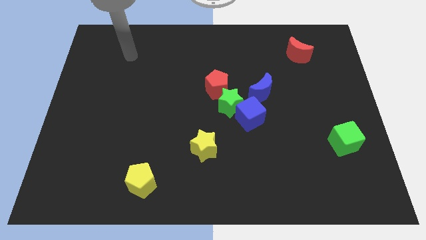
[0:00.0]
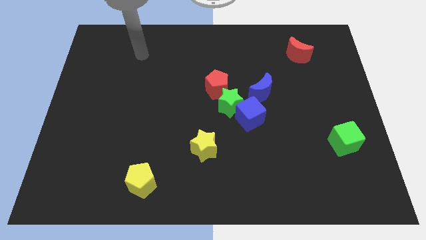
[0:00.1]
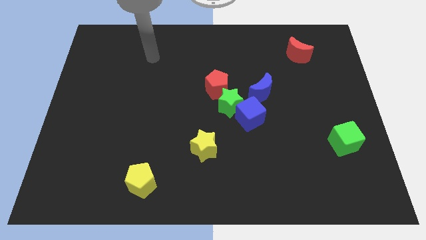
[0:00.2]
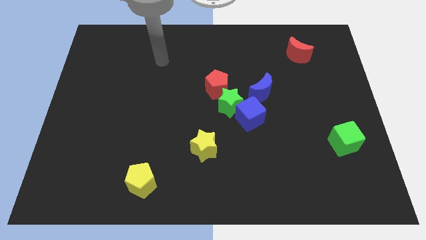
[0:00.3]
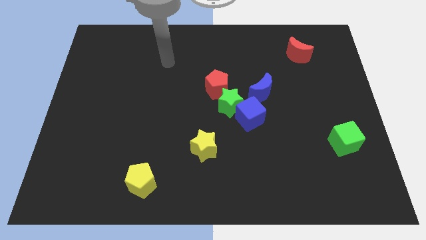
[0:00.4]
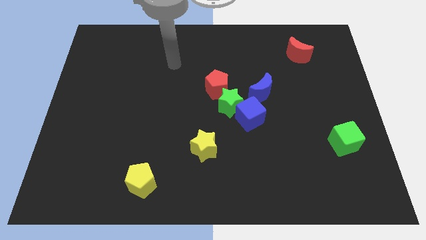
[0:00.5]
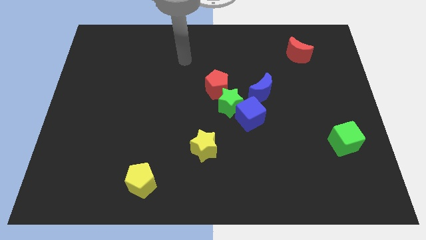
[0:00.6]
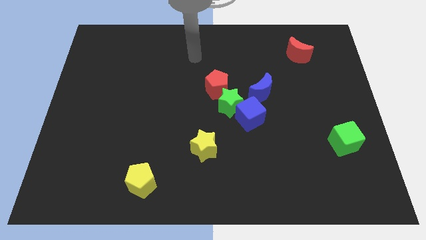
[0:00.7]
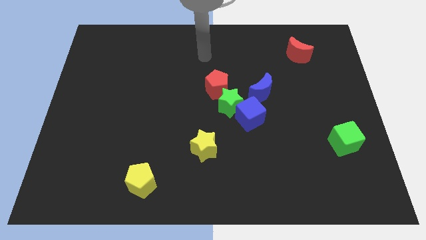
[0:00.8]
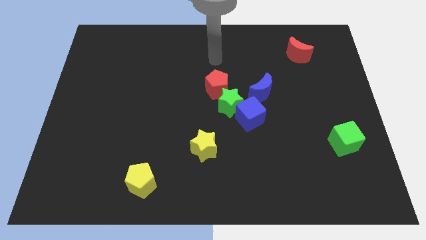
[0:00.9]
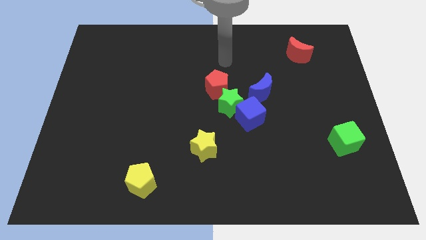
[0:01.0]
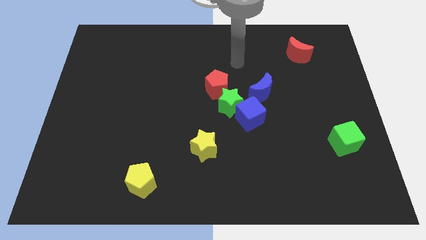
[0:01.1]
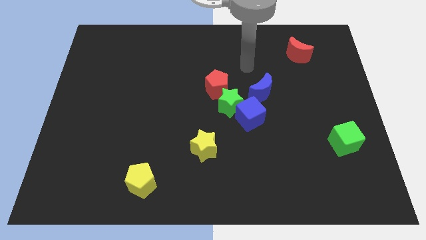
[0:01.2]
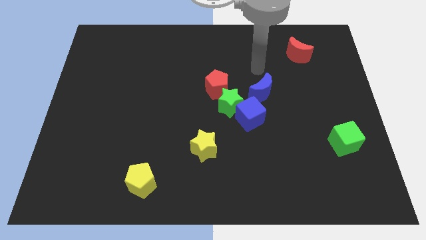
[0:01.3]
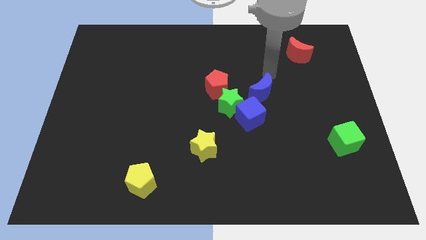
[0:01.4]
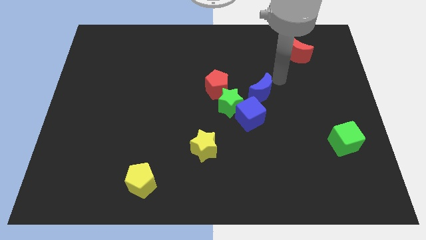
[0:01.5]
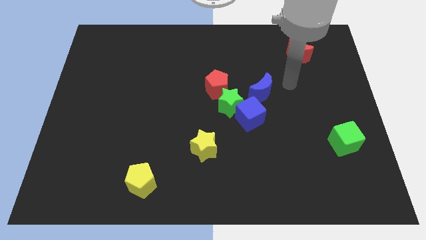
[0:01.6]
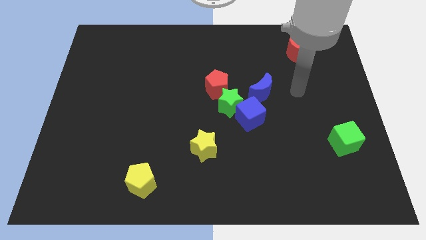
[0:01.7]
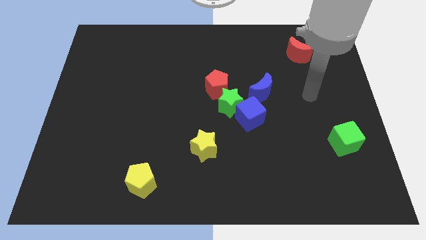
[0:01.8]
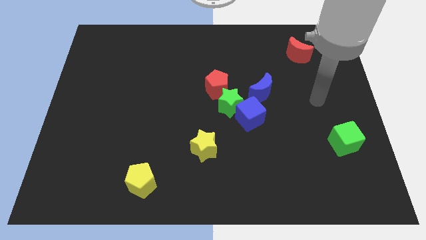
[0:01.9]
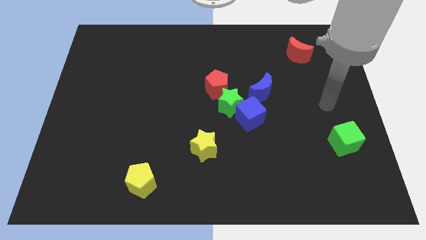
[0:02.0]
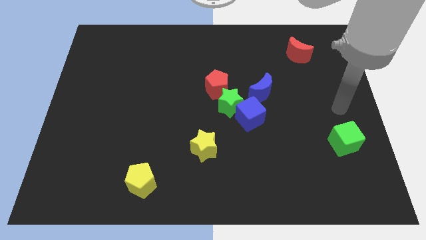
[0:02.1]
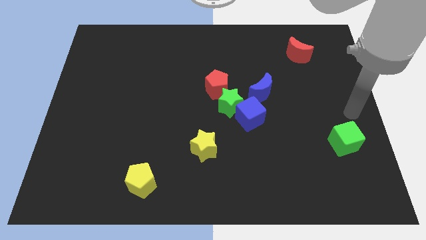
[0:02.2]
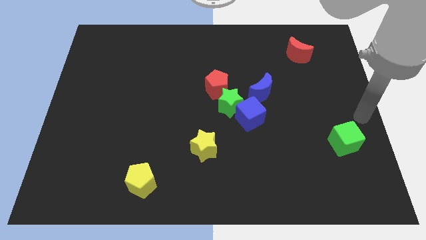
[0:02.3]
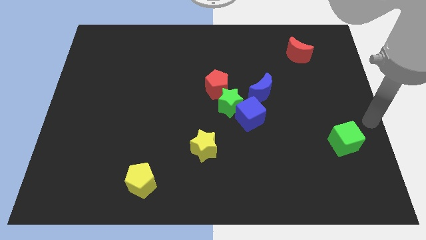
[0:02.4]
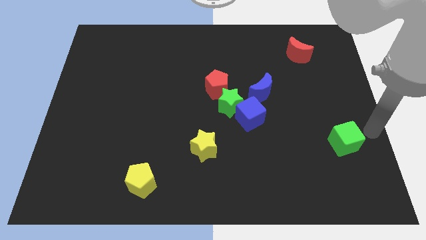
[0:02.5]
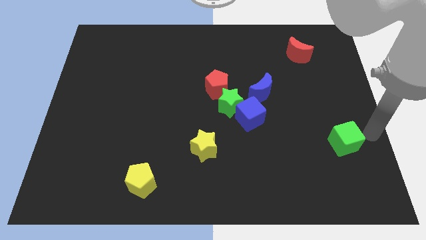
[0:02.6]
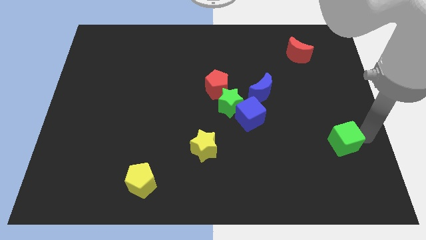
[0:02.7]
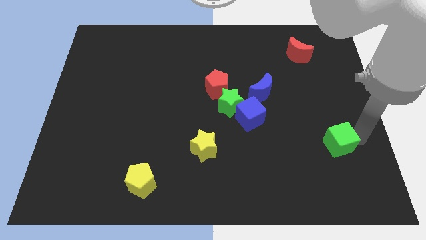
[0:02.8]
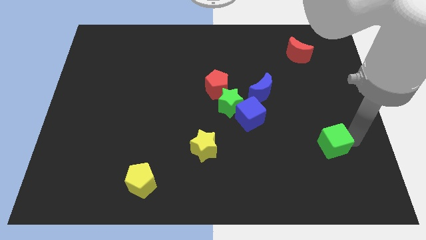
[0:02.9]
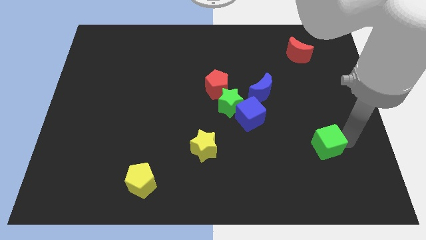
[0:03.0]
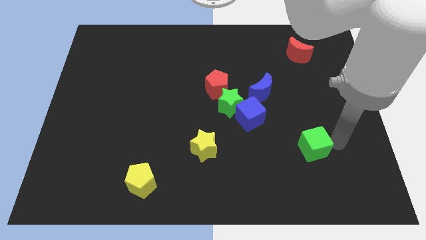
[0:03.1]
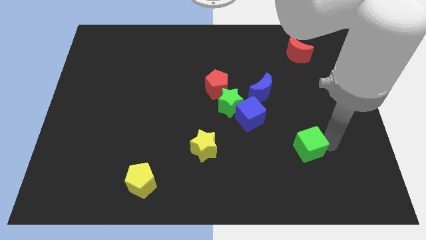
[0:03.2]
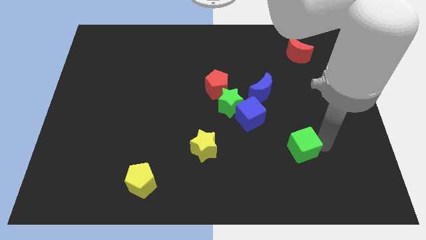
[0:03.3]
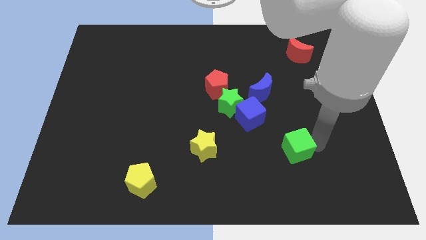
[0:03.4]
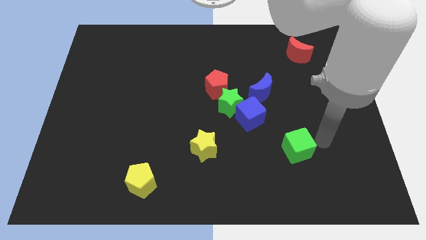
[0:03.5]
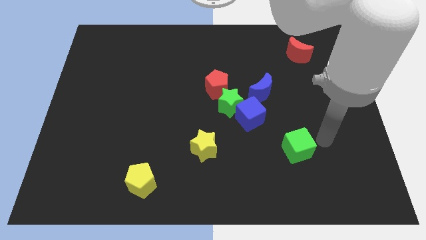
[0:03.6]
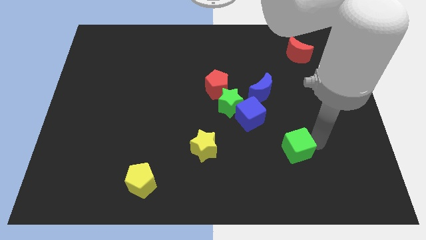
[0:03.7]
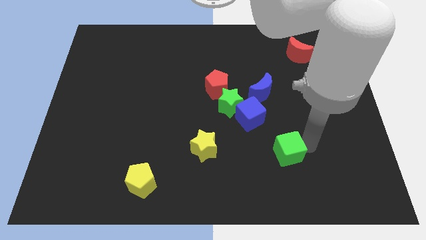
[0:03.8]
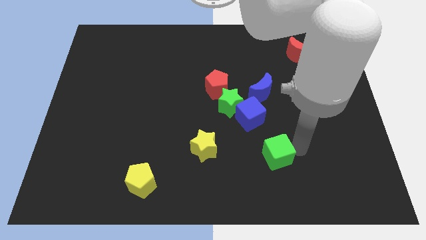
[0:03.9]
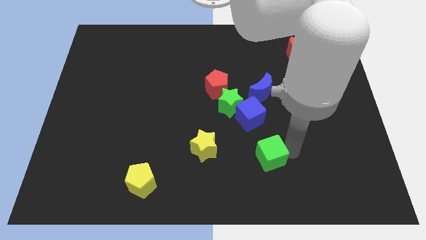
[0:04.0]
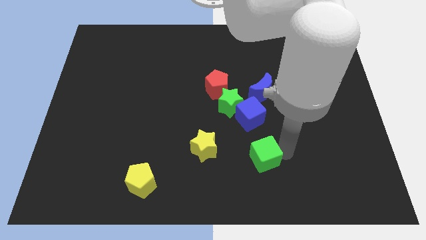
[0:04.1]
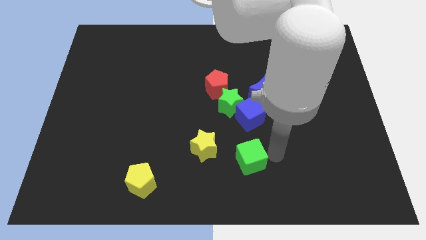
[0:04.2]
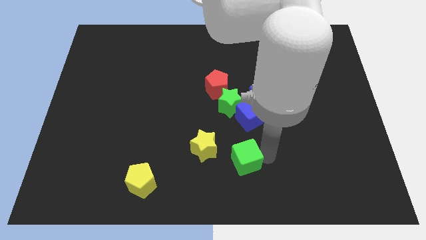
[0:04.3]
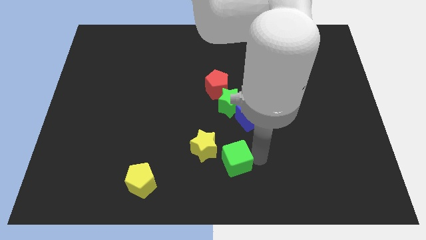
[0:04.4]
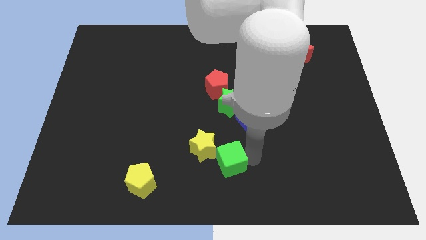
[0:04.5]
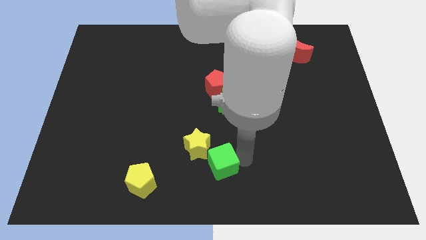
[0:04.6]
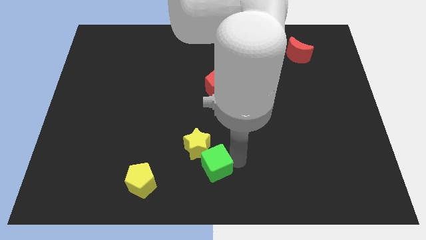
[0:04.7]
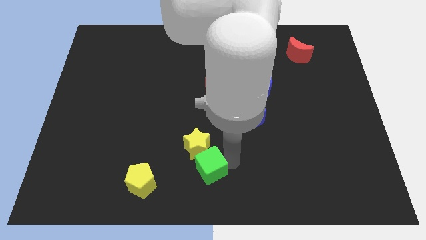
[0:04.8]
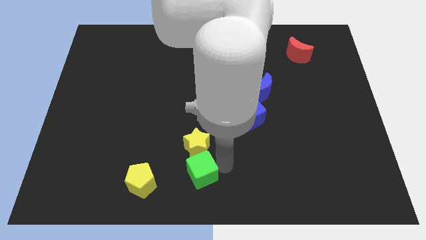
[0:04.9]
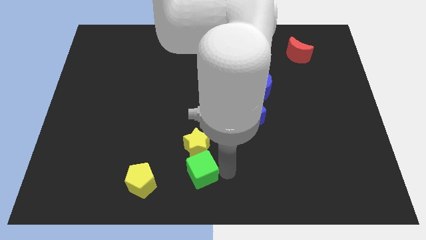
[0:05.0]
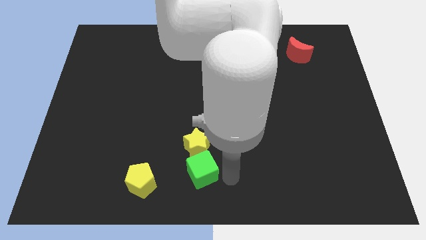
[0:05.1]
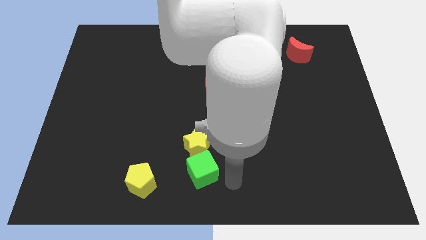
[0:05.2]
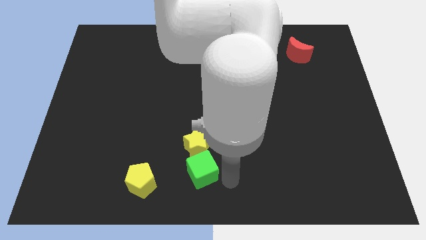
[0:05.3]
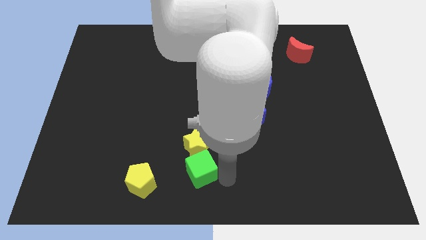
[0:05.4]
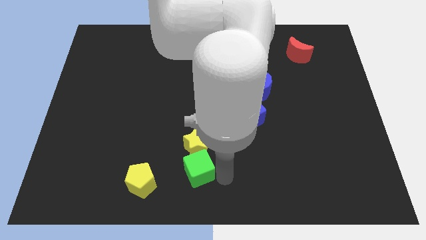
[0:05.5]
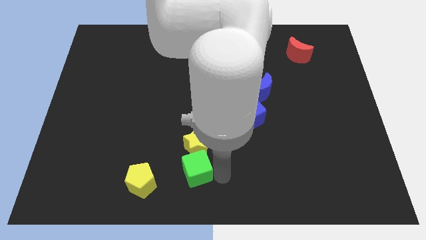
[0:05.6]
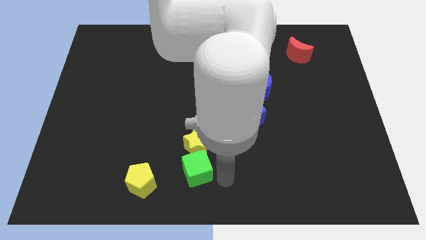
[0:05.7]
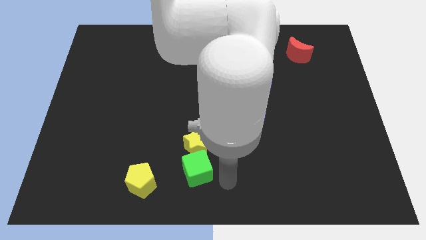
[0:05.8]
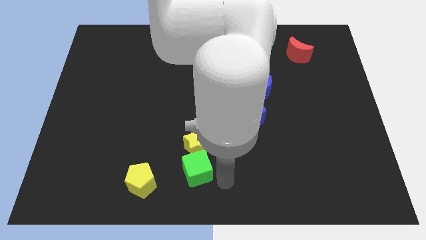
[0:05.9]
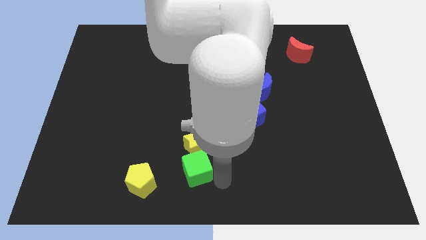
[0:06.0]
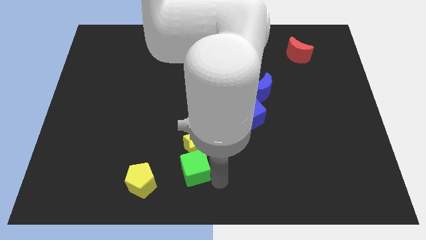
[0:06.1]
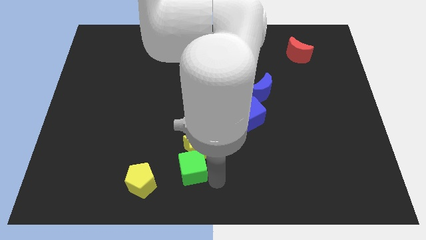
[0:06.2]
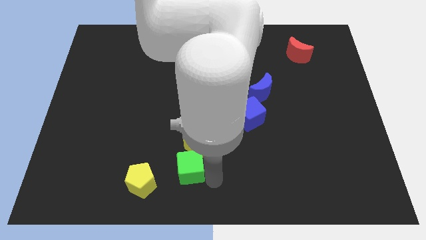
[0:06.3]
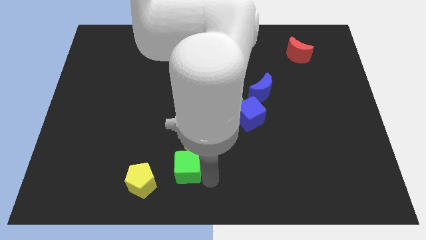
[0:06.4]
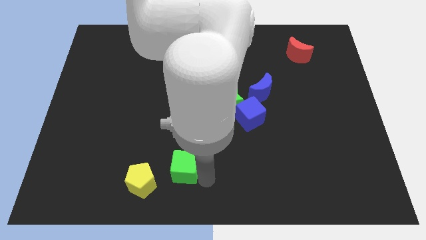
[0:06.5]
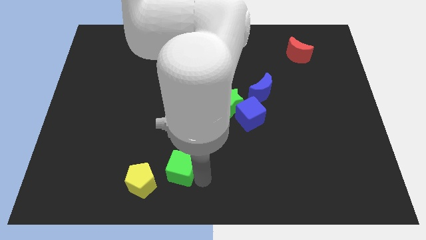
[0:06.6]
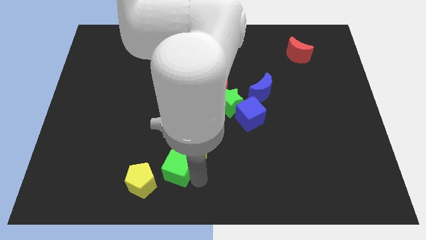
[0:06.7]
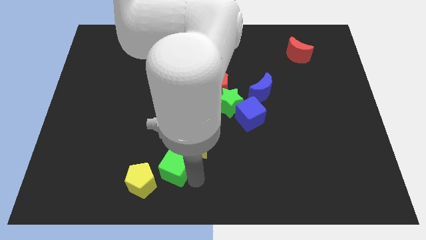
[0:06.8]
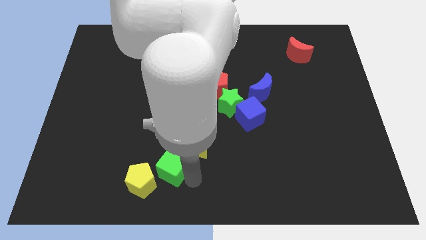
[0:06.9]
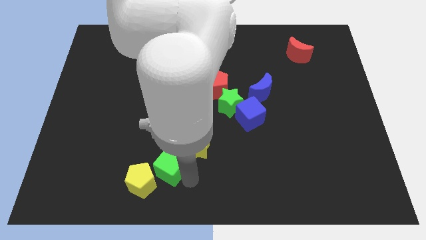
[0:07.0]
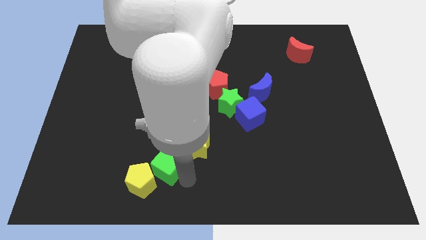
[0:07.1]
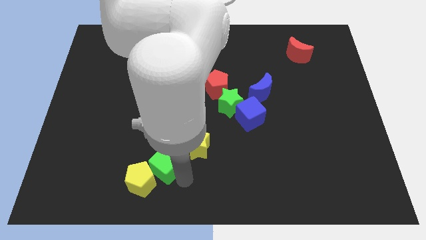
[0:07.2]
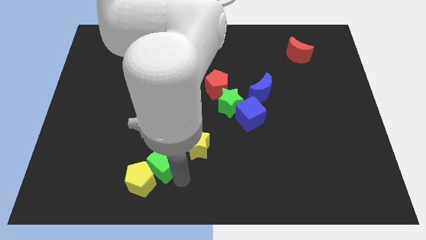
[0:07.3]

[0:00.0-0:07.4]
put the green cube to the top side of the yellow pentagon
